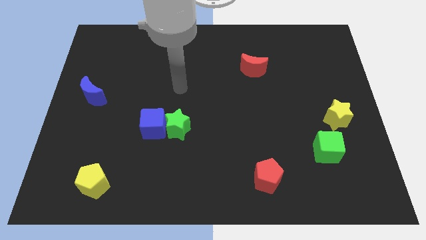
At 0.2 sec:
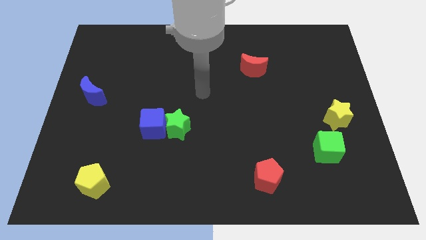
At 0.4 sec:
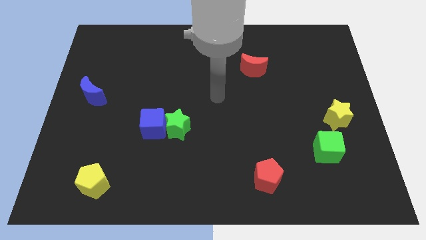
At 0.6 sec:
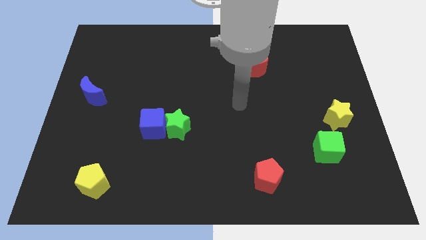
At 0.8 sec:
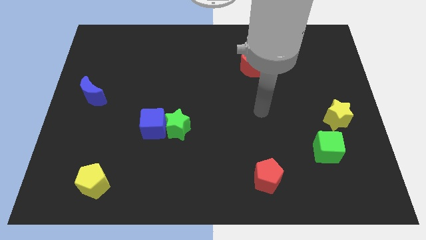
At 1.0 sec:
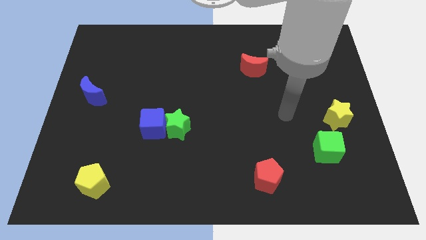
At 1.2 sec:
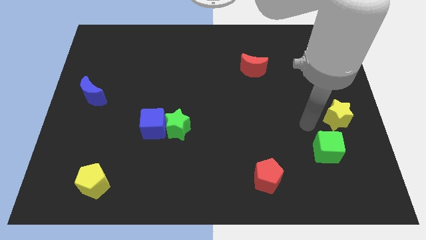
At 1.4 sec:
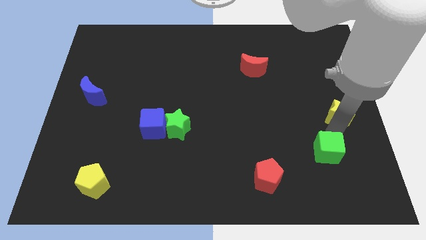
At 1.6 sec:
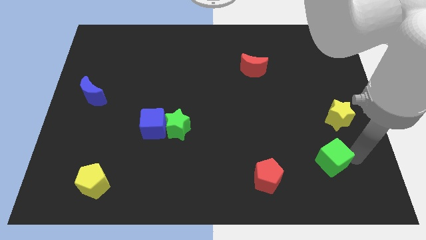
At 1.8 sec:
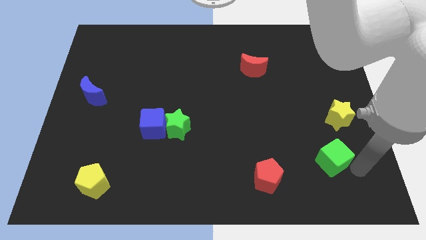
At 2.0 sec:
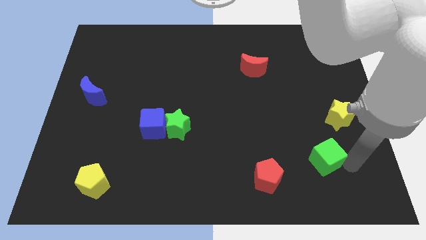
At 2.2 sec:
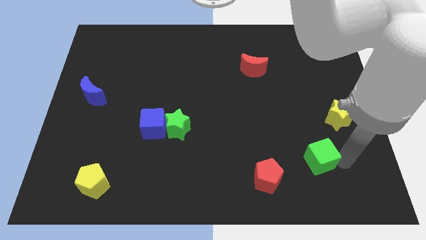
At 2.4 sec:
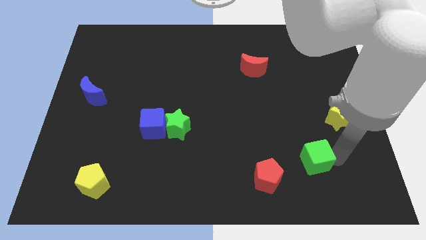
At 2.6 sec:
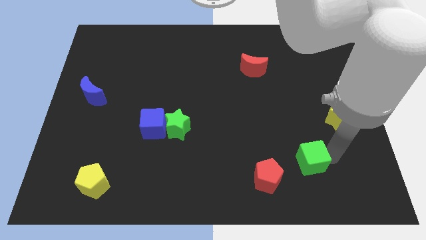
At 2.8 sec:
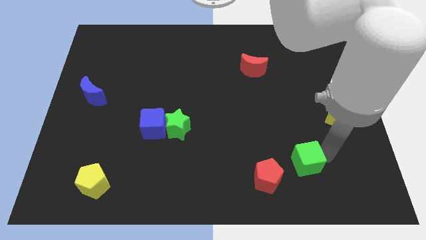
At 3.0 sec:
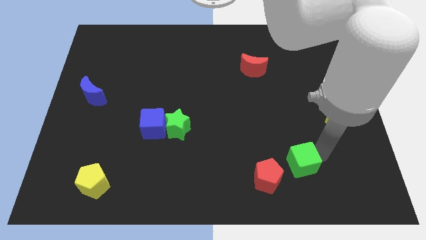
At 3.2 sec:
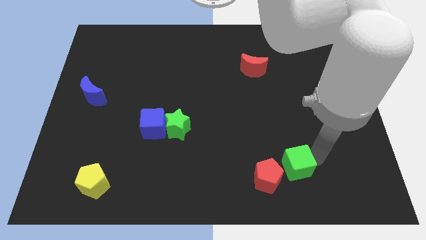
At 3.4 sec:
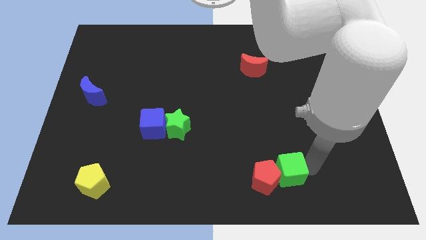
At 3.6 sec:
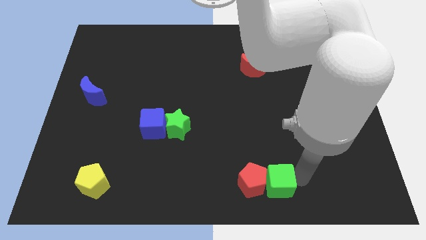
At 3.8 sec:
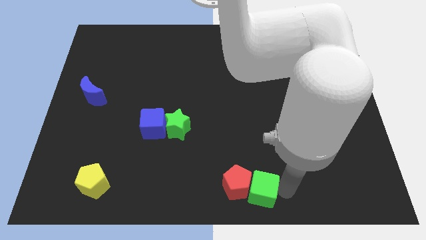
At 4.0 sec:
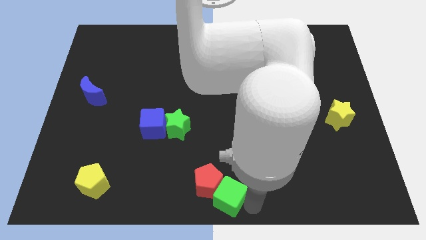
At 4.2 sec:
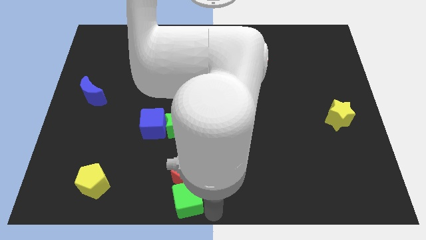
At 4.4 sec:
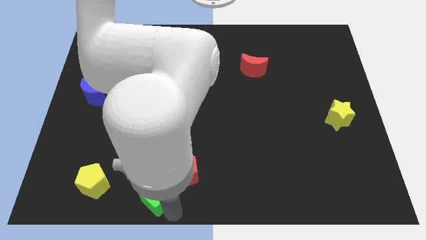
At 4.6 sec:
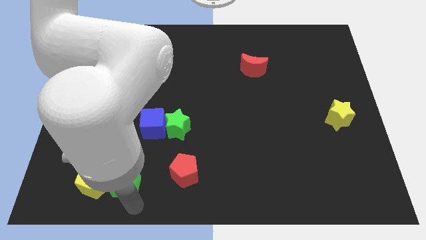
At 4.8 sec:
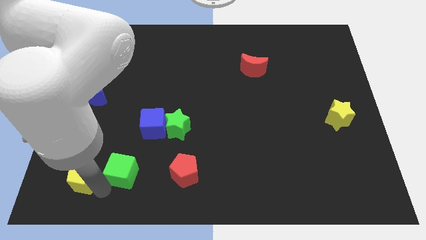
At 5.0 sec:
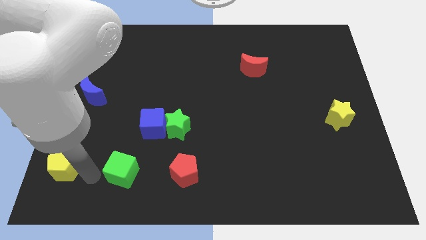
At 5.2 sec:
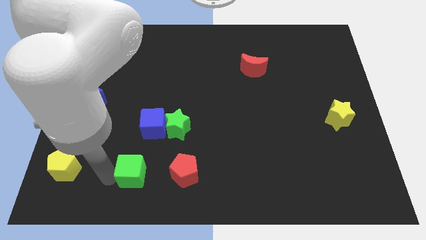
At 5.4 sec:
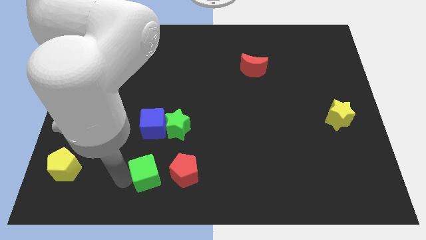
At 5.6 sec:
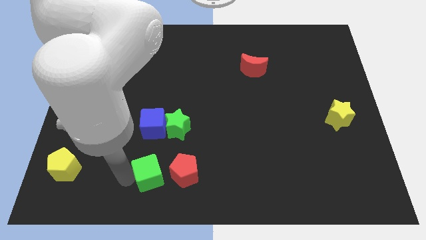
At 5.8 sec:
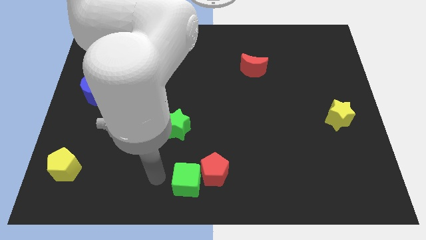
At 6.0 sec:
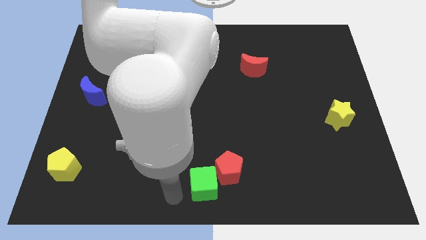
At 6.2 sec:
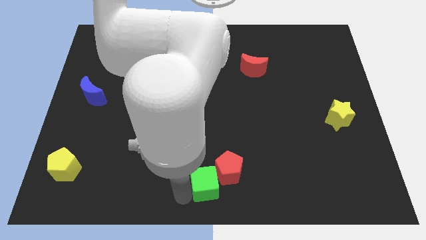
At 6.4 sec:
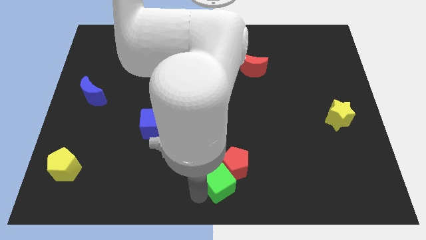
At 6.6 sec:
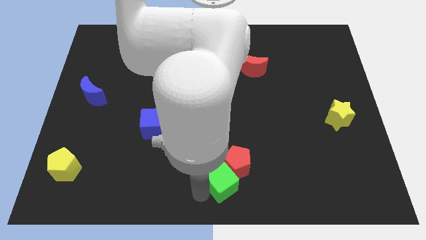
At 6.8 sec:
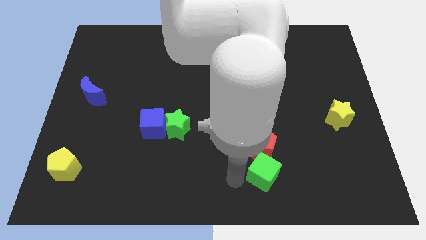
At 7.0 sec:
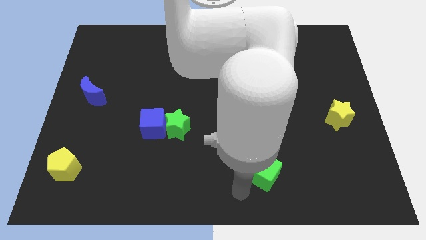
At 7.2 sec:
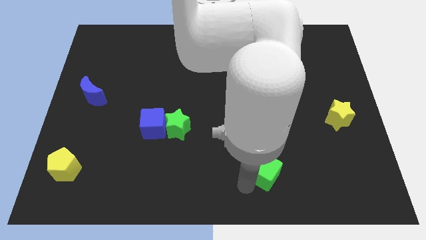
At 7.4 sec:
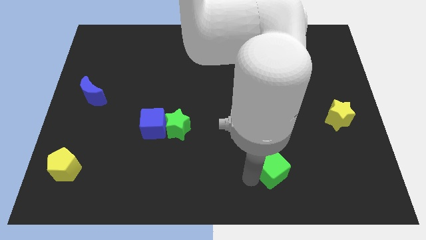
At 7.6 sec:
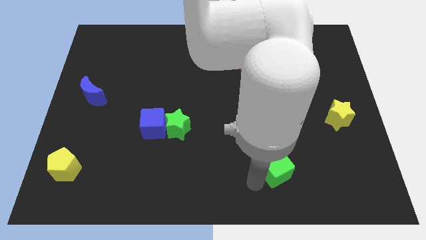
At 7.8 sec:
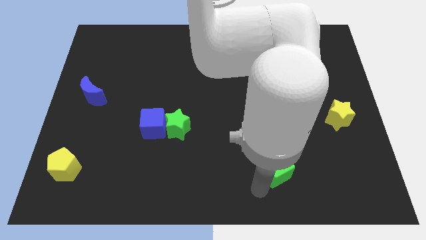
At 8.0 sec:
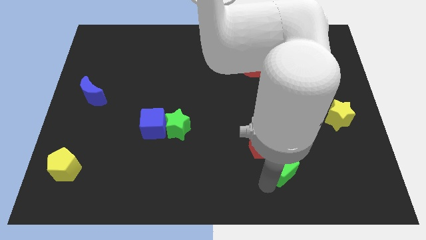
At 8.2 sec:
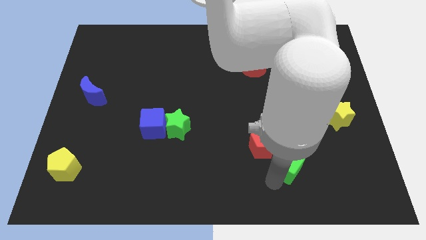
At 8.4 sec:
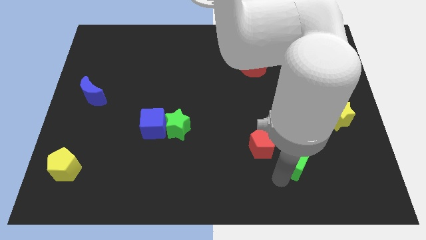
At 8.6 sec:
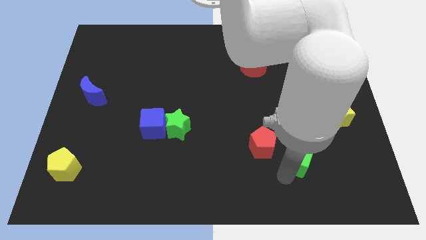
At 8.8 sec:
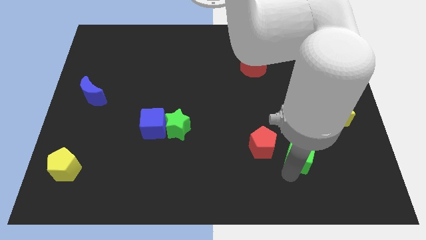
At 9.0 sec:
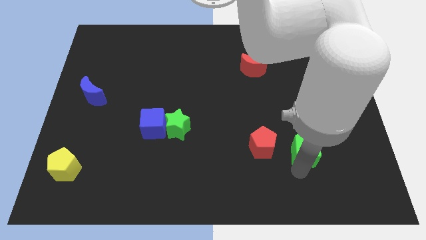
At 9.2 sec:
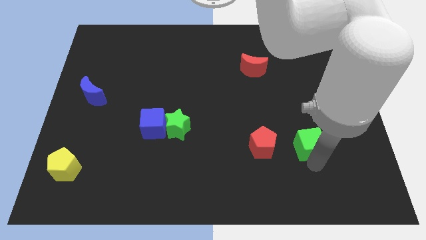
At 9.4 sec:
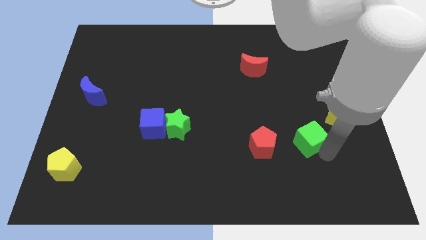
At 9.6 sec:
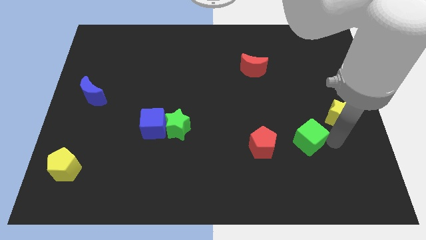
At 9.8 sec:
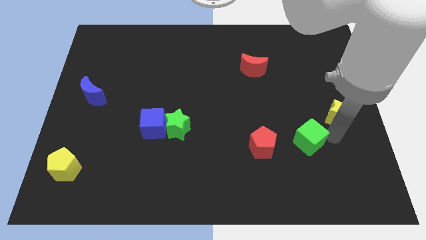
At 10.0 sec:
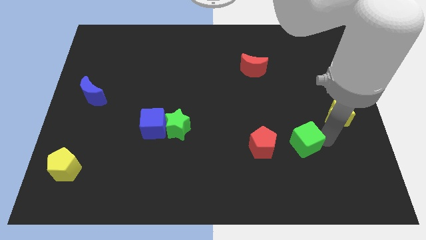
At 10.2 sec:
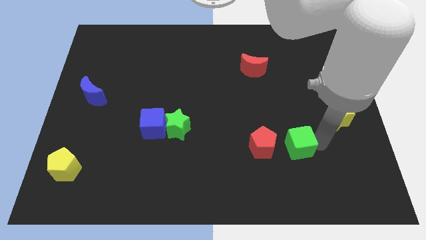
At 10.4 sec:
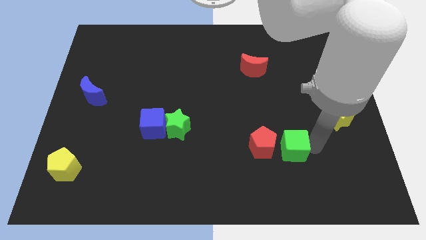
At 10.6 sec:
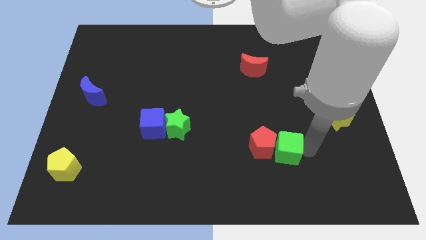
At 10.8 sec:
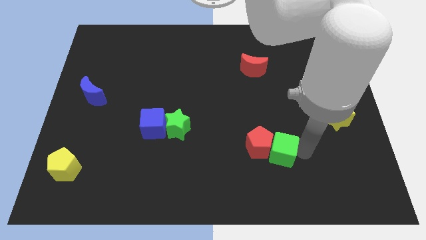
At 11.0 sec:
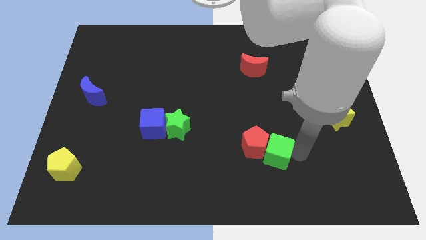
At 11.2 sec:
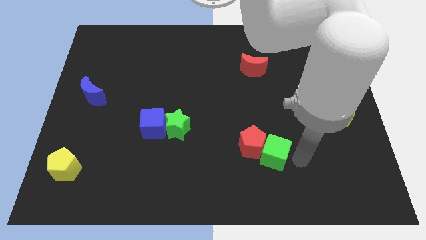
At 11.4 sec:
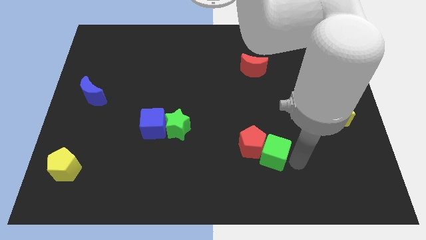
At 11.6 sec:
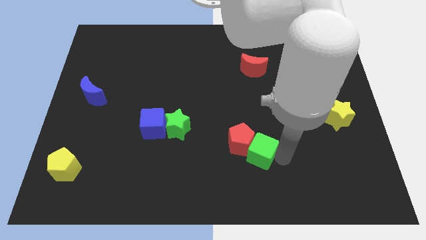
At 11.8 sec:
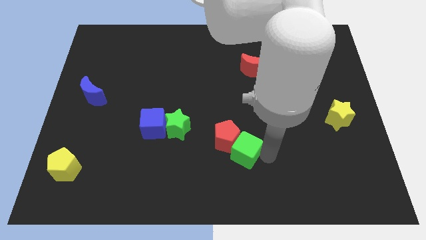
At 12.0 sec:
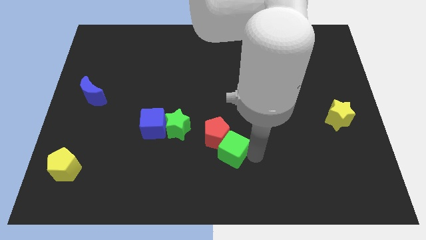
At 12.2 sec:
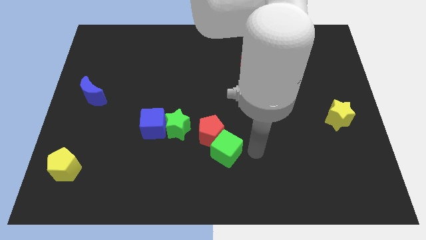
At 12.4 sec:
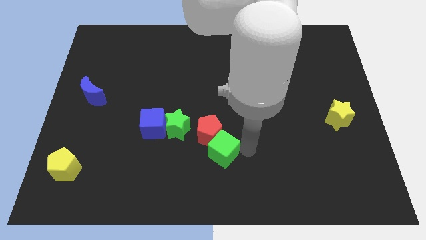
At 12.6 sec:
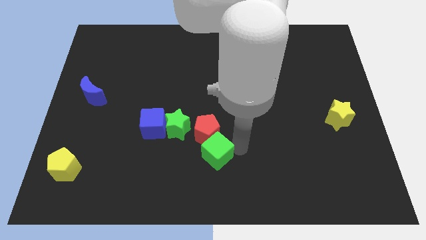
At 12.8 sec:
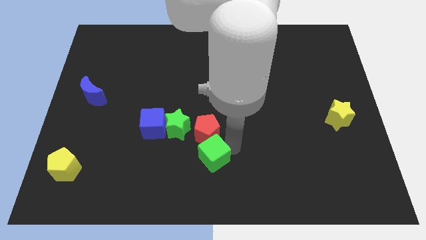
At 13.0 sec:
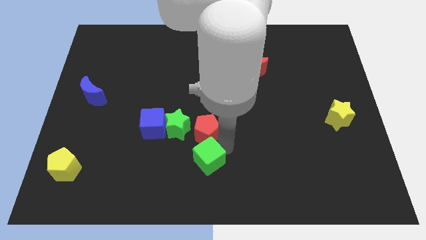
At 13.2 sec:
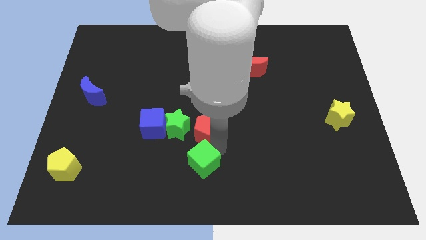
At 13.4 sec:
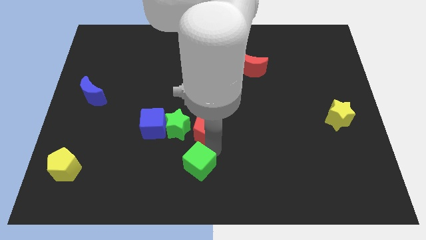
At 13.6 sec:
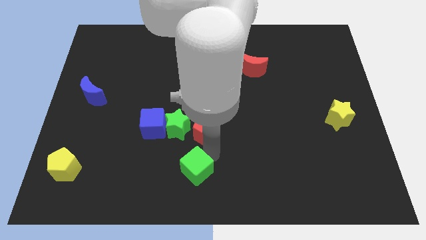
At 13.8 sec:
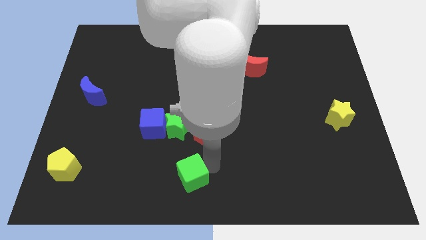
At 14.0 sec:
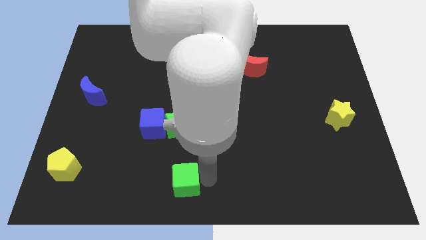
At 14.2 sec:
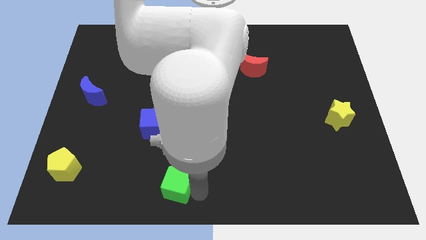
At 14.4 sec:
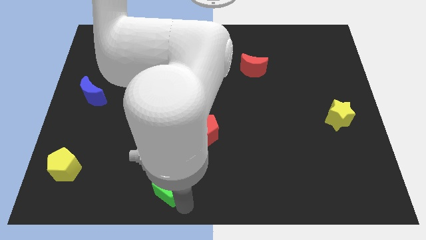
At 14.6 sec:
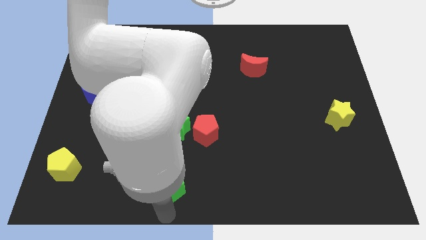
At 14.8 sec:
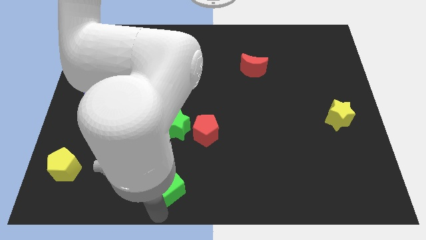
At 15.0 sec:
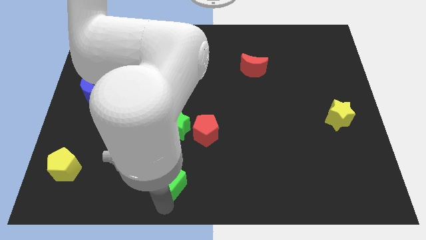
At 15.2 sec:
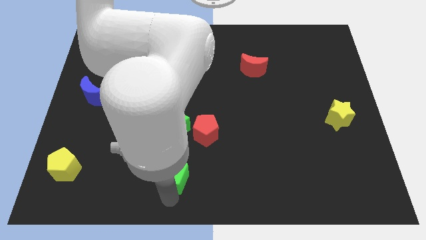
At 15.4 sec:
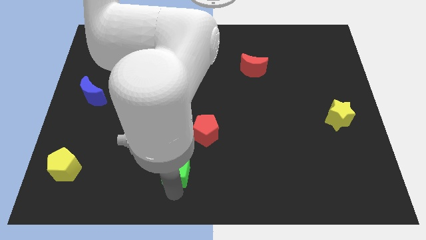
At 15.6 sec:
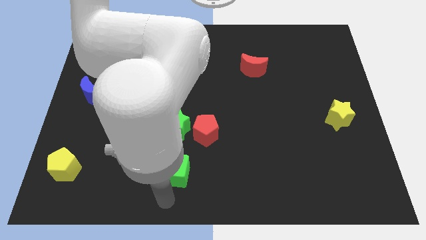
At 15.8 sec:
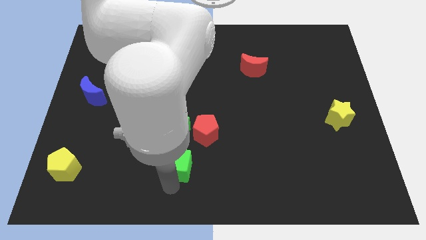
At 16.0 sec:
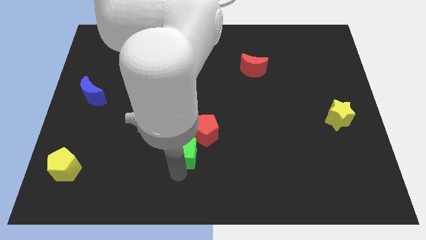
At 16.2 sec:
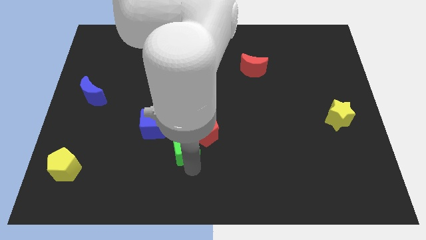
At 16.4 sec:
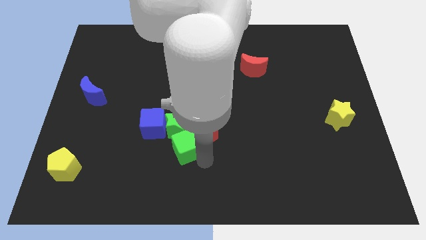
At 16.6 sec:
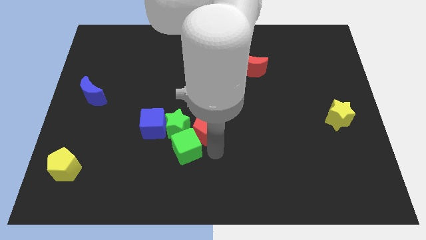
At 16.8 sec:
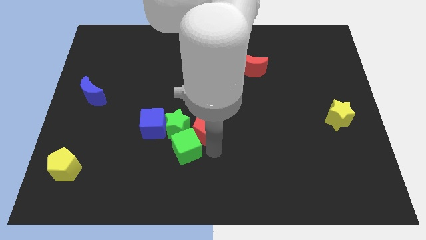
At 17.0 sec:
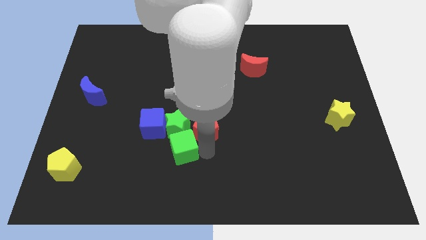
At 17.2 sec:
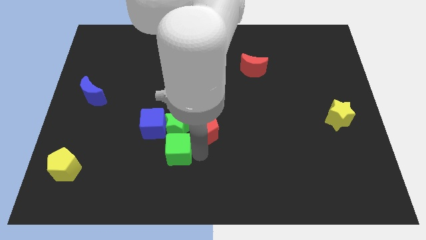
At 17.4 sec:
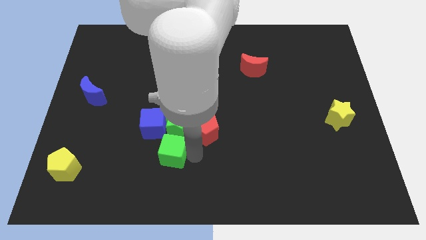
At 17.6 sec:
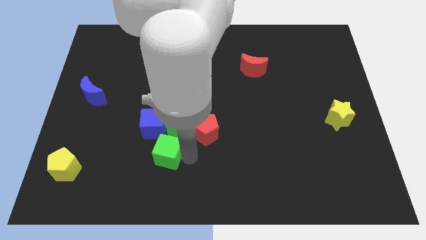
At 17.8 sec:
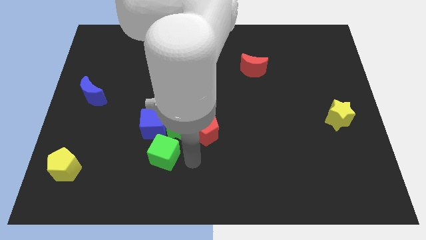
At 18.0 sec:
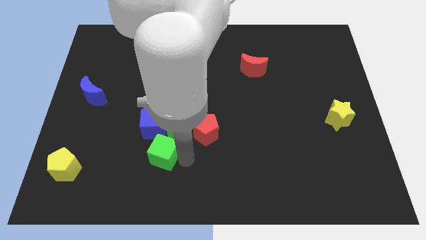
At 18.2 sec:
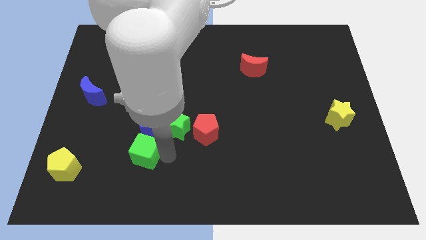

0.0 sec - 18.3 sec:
move the green cube to the bottom left of the blue cube
